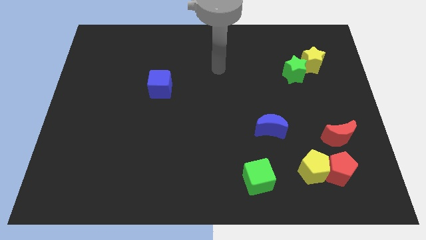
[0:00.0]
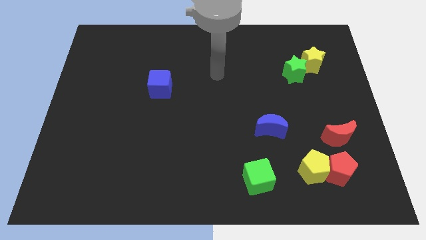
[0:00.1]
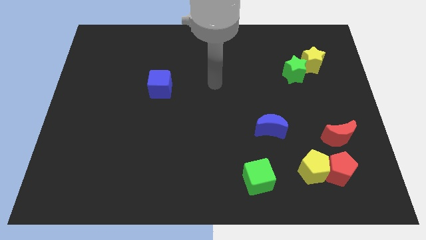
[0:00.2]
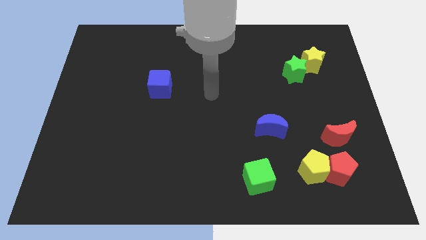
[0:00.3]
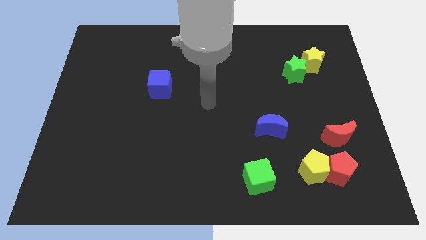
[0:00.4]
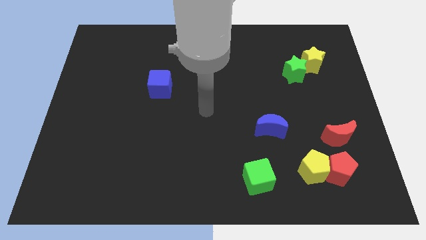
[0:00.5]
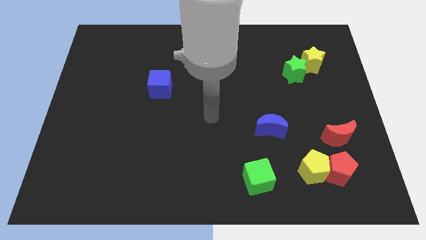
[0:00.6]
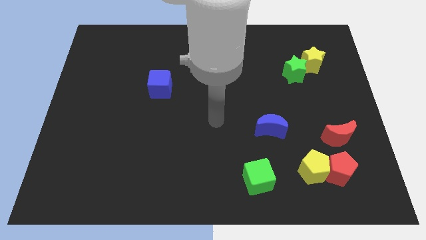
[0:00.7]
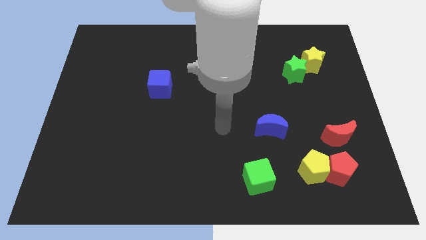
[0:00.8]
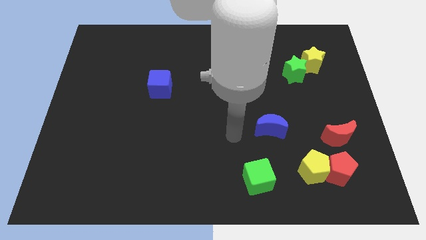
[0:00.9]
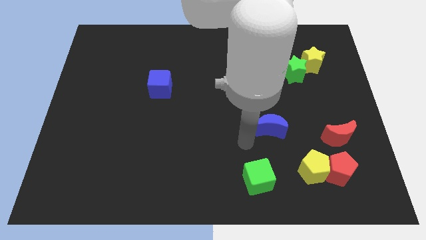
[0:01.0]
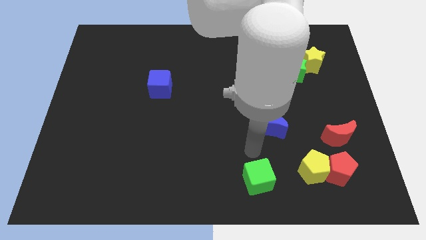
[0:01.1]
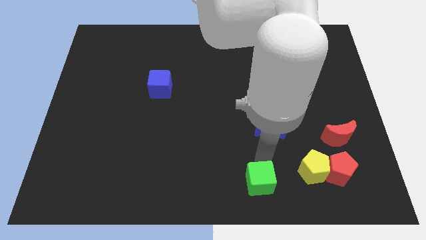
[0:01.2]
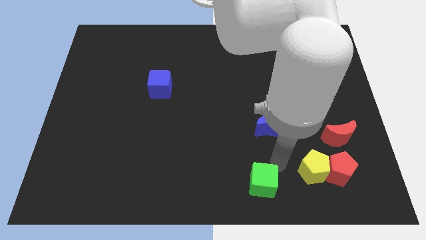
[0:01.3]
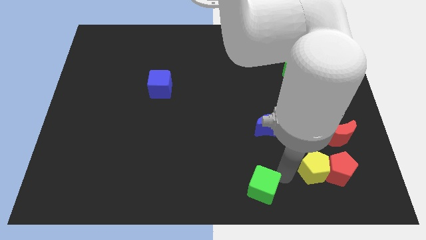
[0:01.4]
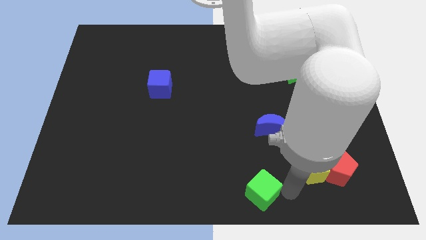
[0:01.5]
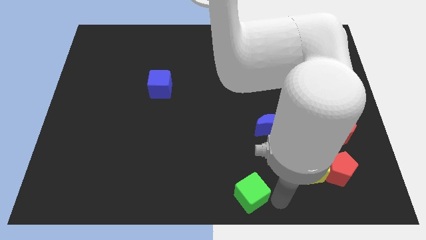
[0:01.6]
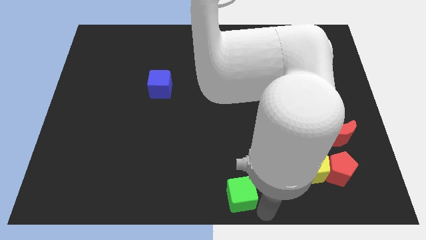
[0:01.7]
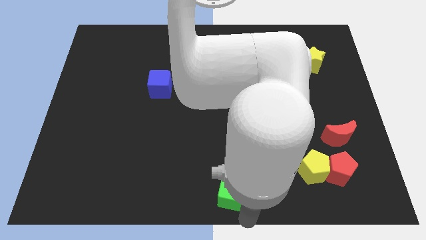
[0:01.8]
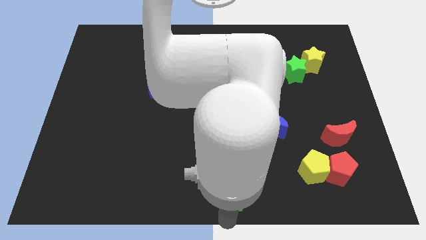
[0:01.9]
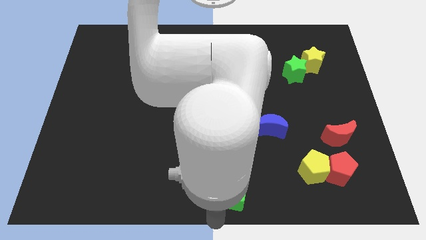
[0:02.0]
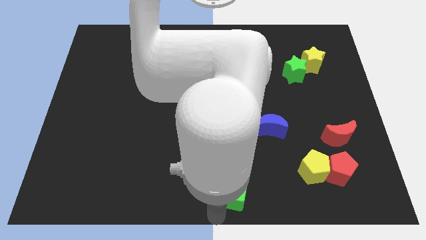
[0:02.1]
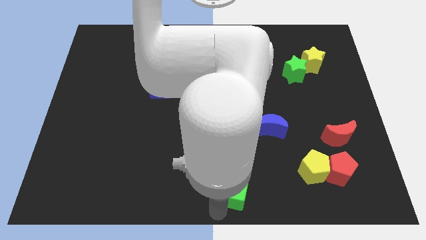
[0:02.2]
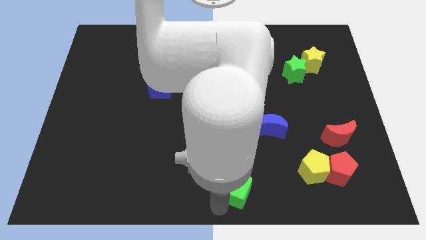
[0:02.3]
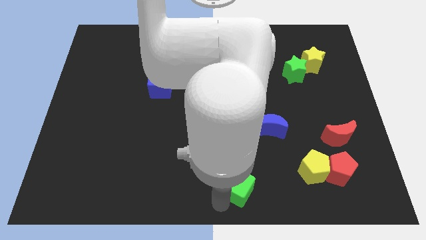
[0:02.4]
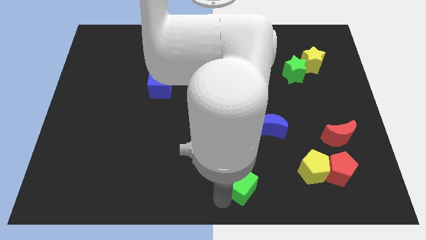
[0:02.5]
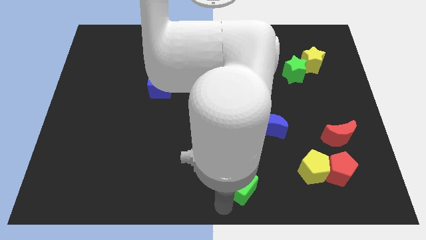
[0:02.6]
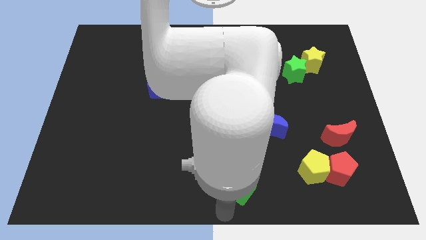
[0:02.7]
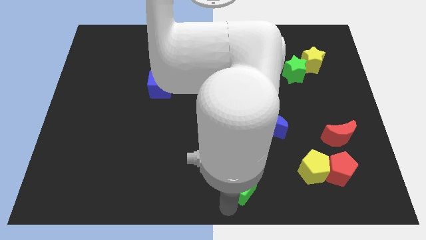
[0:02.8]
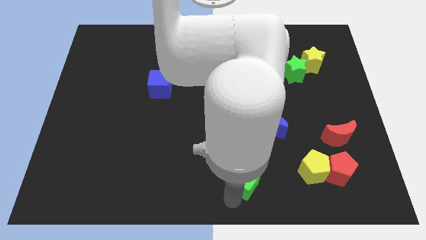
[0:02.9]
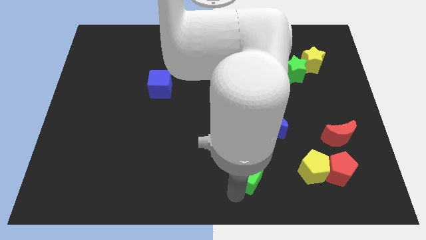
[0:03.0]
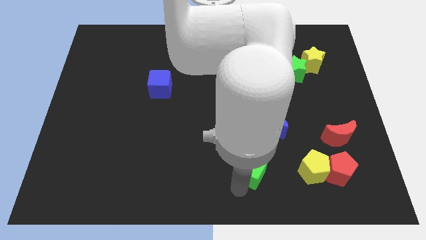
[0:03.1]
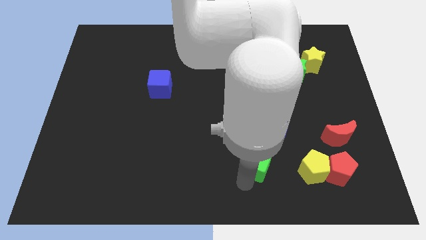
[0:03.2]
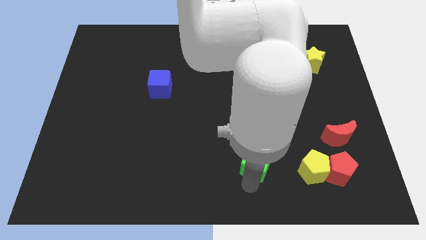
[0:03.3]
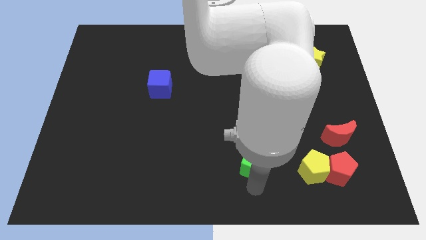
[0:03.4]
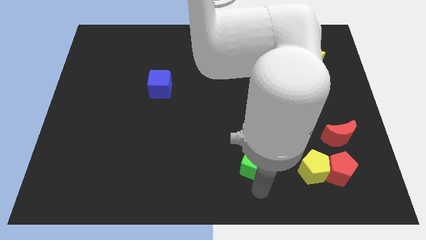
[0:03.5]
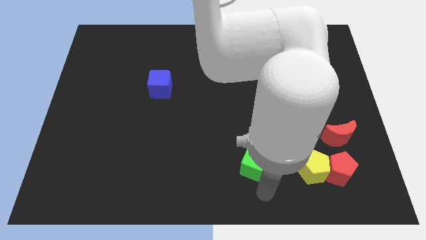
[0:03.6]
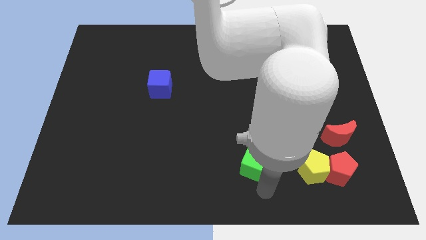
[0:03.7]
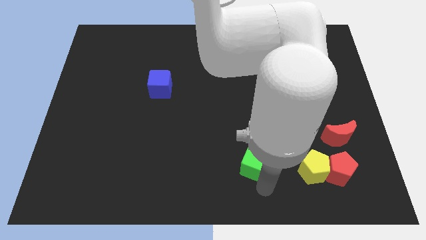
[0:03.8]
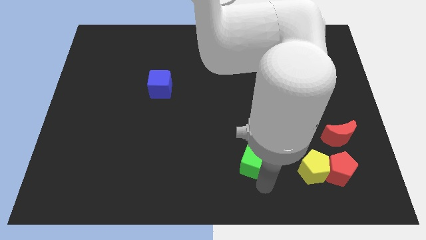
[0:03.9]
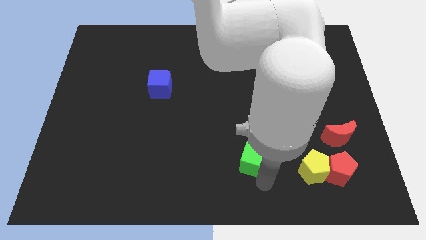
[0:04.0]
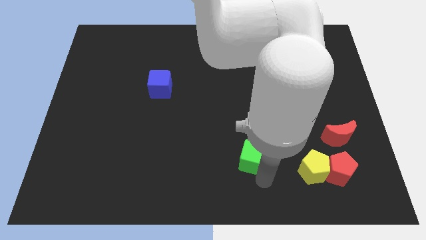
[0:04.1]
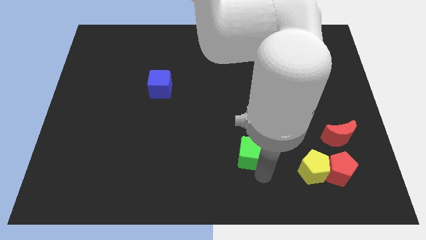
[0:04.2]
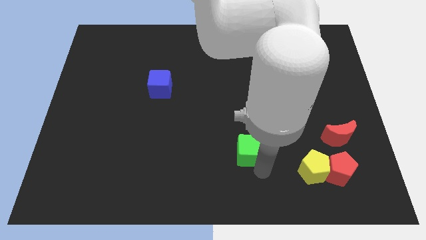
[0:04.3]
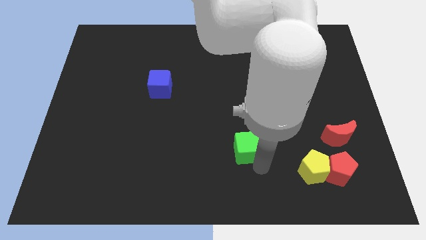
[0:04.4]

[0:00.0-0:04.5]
move the green cube upwards a bit

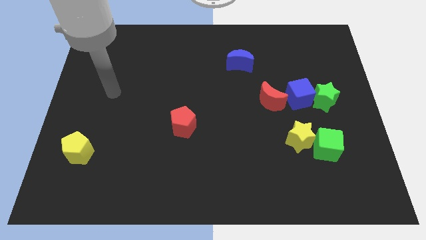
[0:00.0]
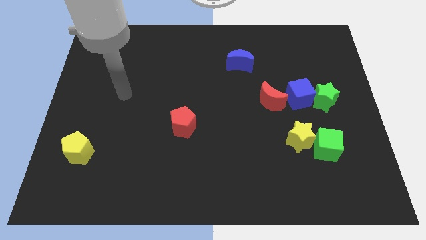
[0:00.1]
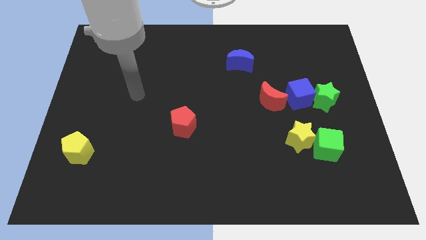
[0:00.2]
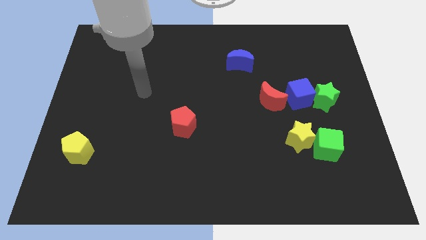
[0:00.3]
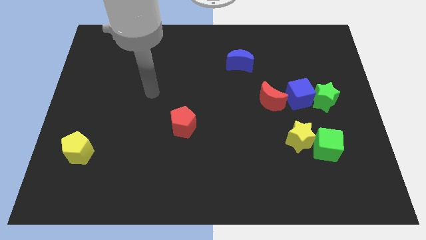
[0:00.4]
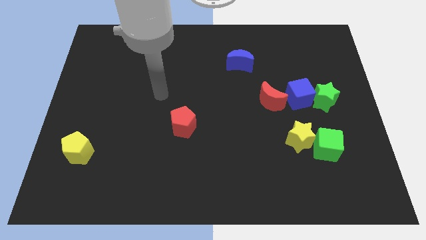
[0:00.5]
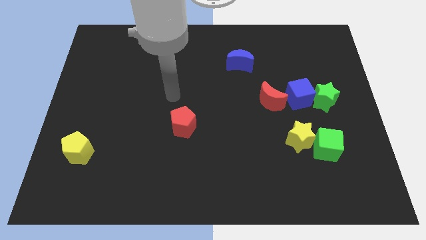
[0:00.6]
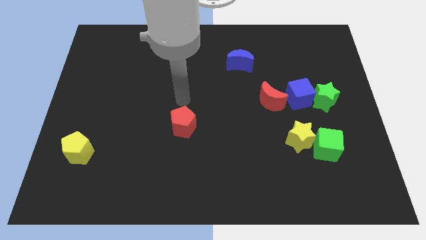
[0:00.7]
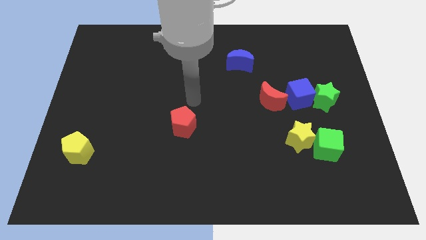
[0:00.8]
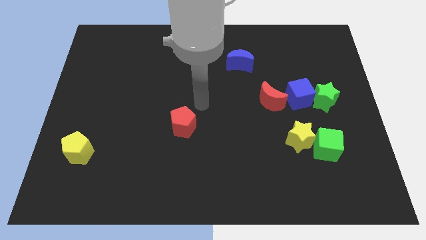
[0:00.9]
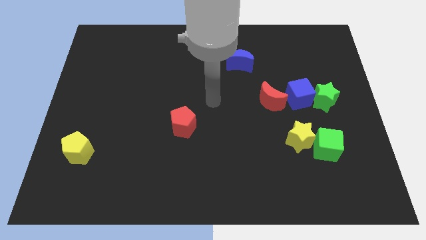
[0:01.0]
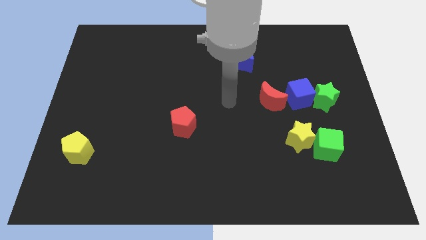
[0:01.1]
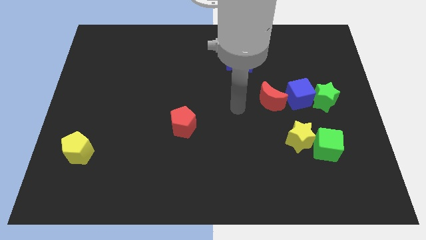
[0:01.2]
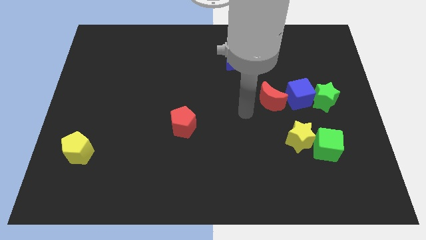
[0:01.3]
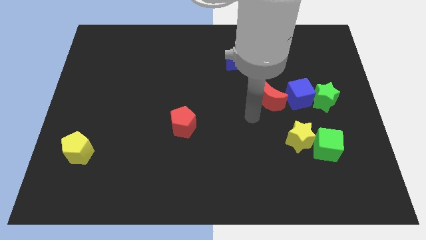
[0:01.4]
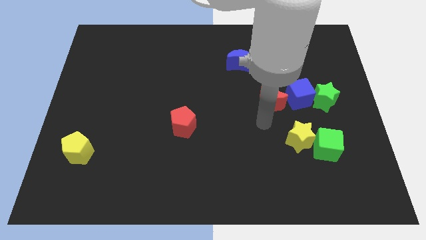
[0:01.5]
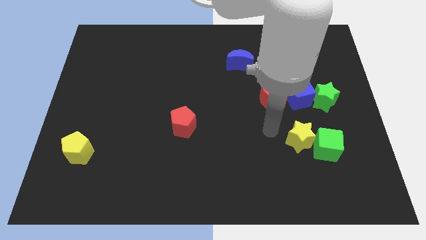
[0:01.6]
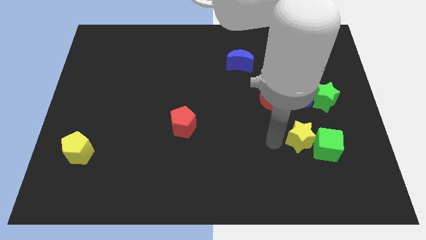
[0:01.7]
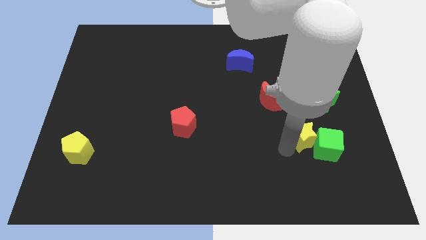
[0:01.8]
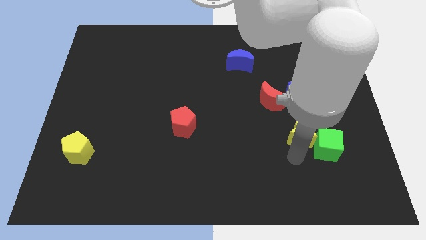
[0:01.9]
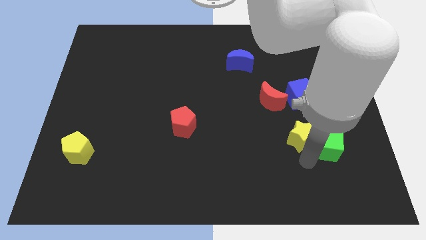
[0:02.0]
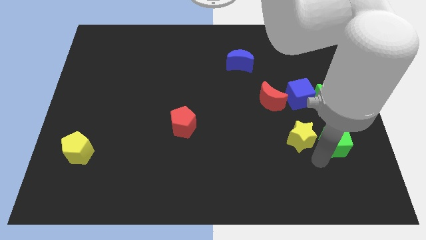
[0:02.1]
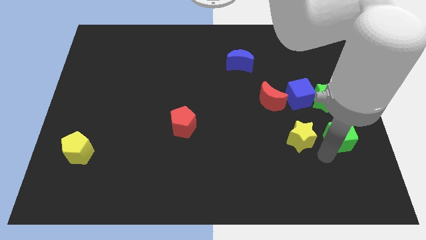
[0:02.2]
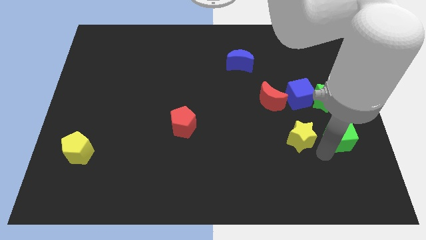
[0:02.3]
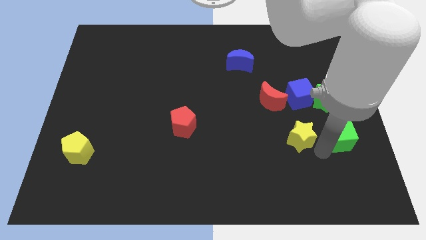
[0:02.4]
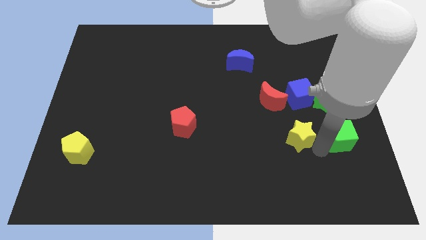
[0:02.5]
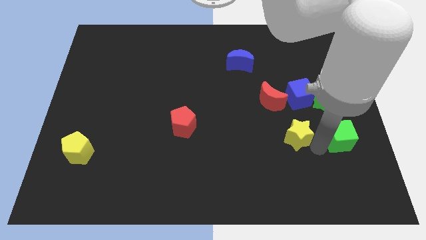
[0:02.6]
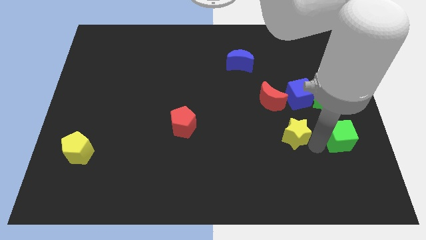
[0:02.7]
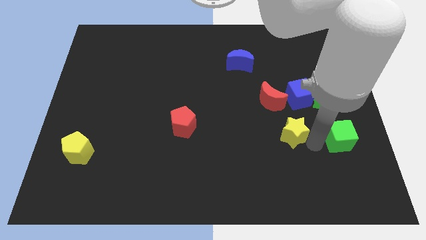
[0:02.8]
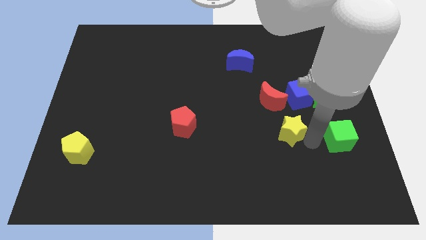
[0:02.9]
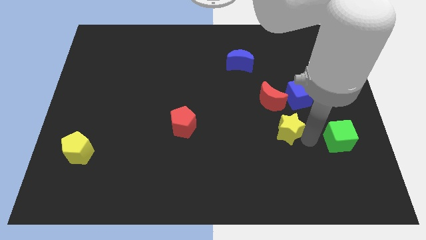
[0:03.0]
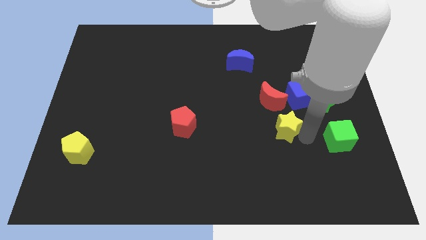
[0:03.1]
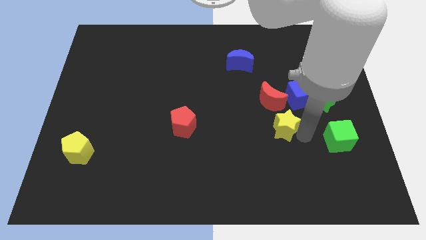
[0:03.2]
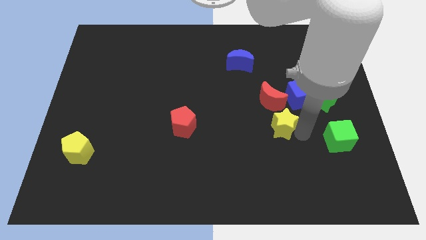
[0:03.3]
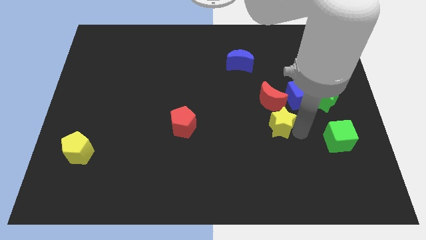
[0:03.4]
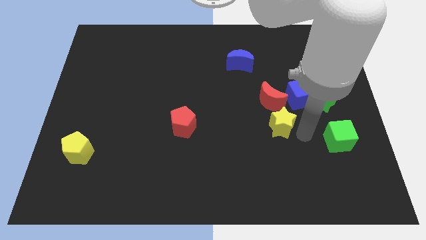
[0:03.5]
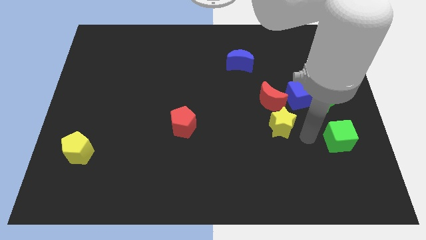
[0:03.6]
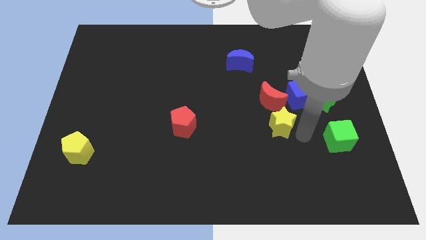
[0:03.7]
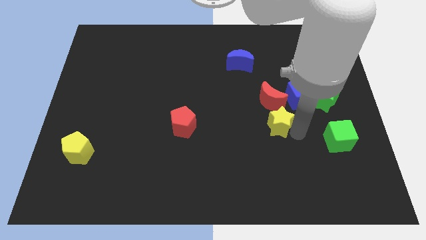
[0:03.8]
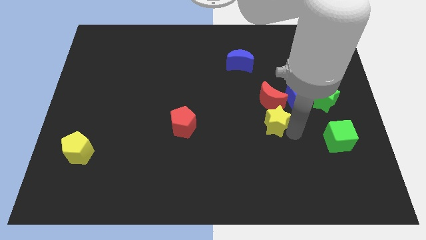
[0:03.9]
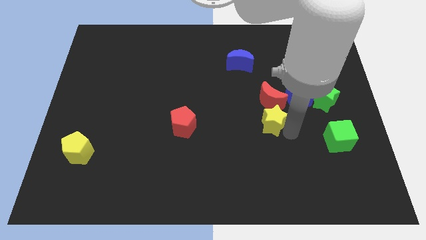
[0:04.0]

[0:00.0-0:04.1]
slightly push the yellow star diagonally upwards and left
